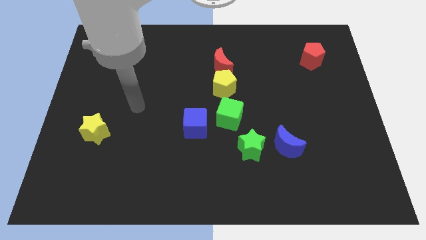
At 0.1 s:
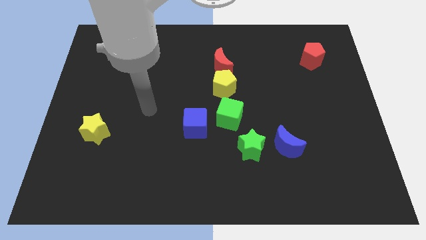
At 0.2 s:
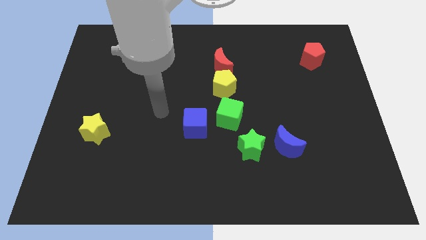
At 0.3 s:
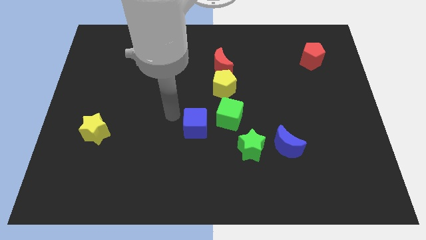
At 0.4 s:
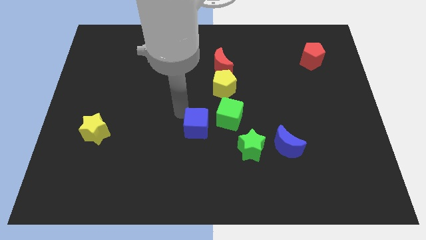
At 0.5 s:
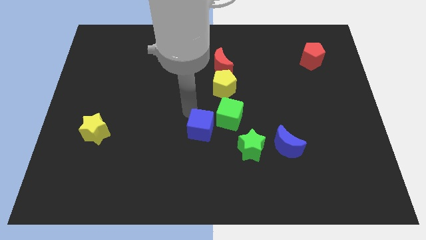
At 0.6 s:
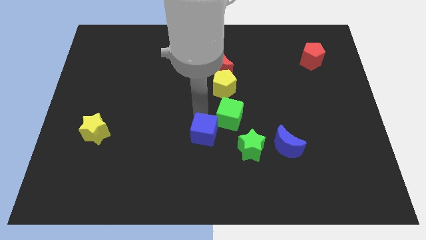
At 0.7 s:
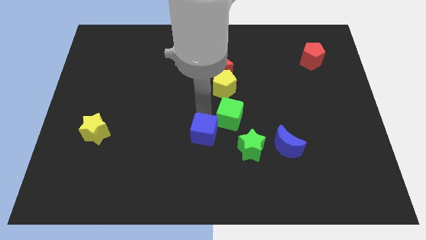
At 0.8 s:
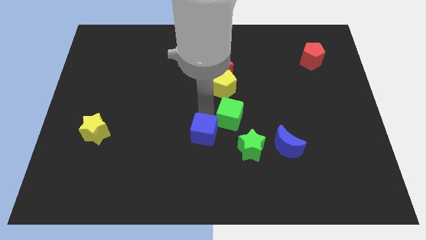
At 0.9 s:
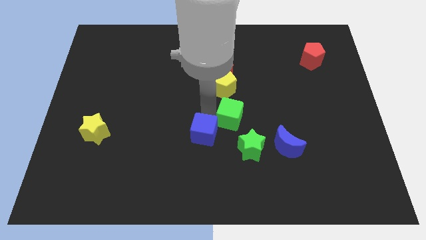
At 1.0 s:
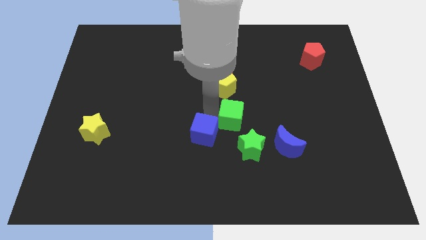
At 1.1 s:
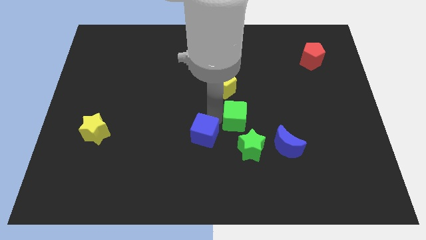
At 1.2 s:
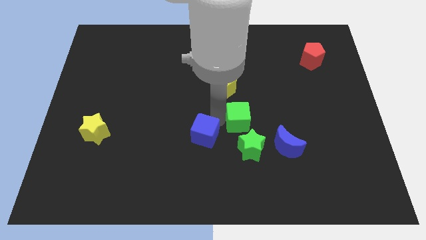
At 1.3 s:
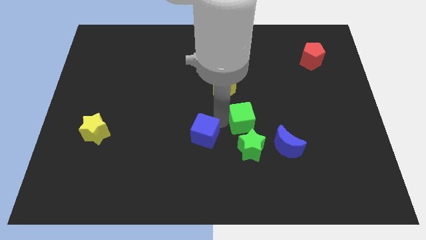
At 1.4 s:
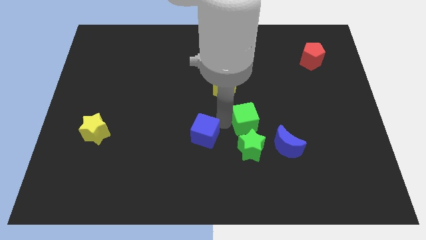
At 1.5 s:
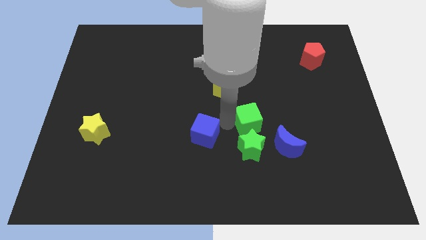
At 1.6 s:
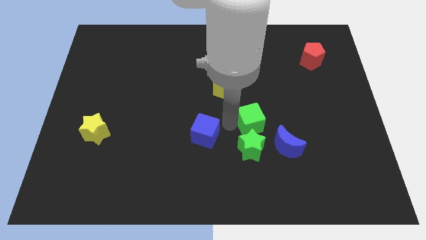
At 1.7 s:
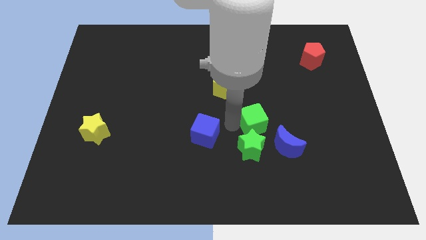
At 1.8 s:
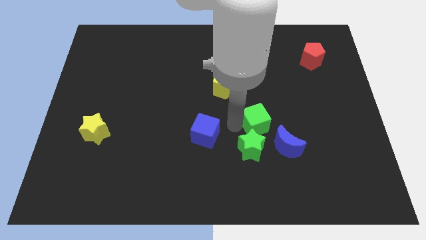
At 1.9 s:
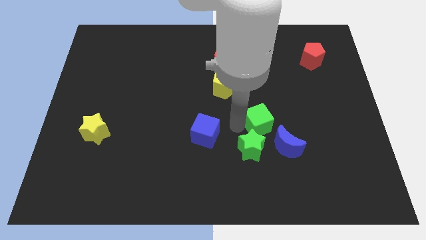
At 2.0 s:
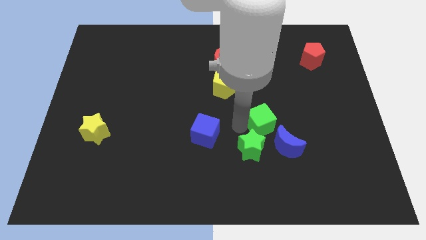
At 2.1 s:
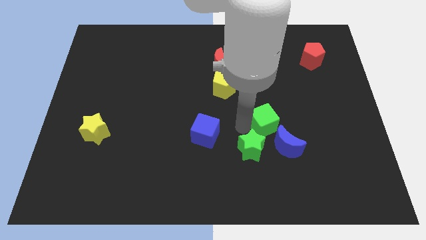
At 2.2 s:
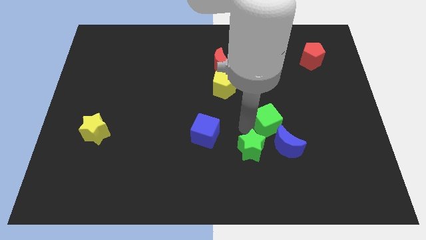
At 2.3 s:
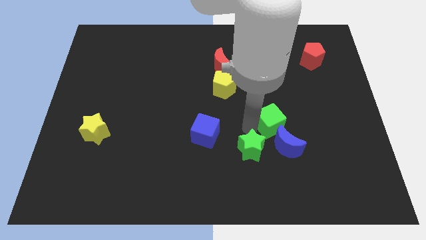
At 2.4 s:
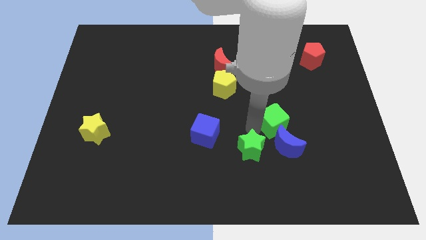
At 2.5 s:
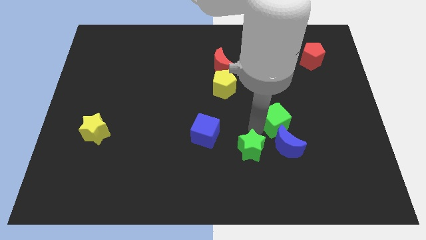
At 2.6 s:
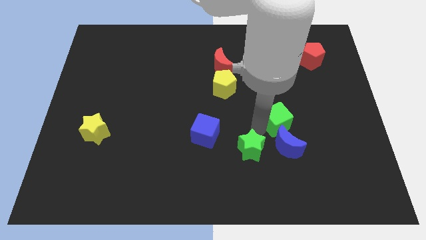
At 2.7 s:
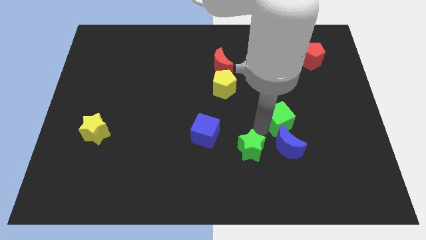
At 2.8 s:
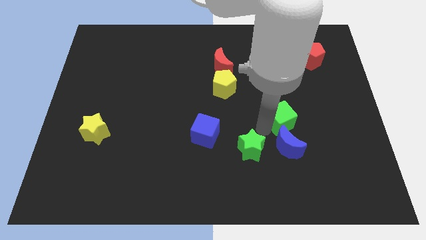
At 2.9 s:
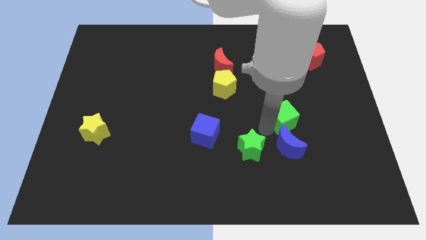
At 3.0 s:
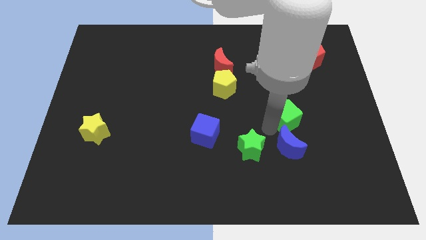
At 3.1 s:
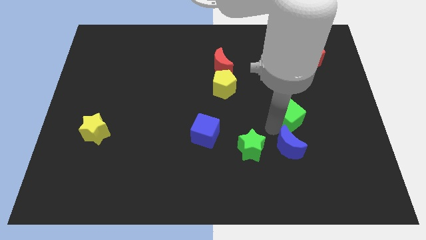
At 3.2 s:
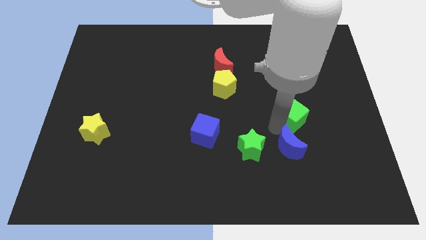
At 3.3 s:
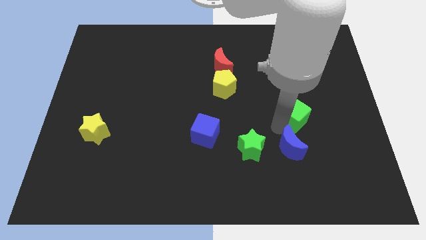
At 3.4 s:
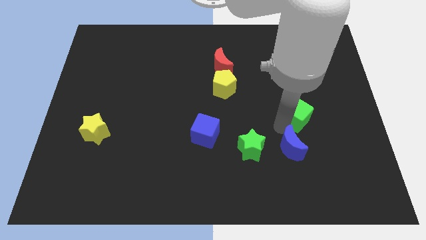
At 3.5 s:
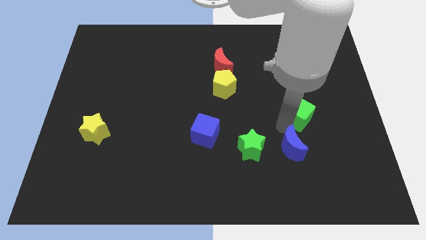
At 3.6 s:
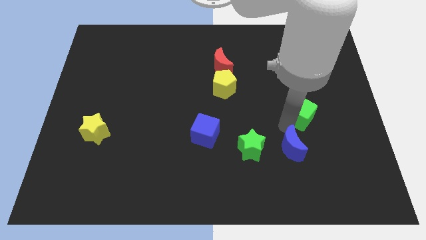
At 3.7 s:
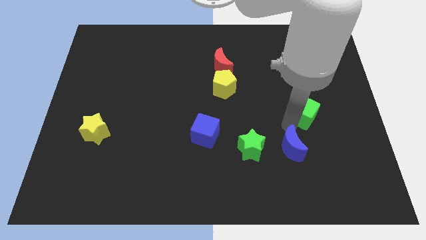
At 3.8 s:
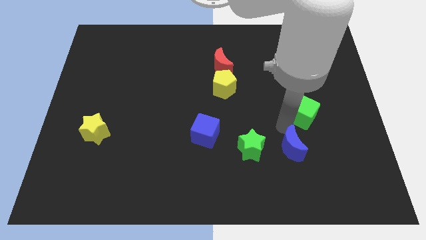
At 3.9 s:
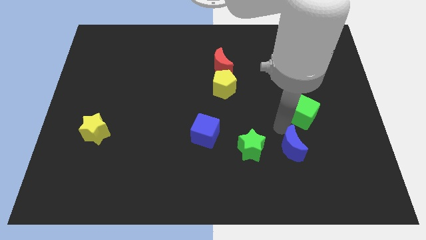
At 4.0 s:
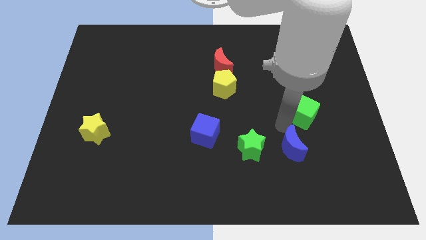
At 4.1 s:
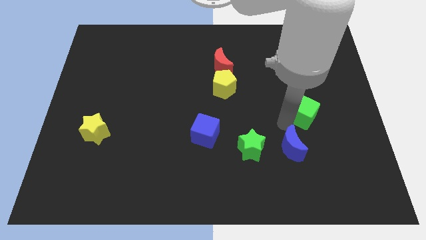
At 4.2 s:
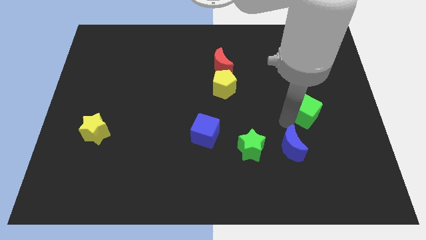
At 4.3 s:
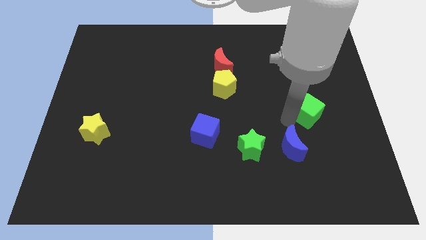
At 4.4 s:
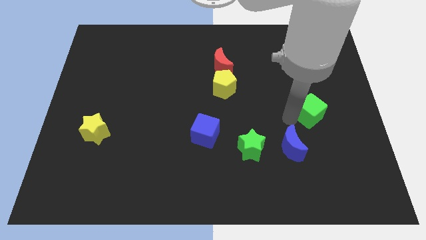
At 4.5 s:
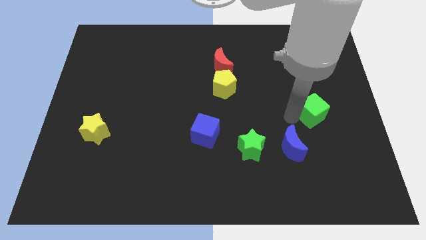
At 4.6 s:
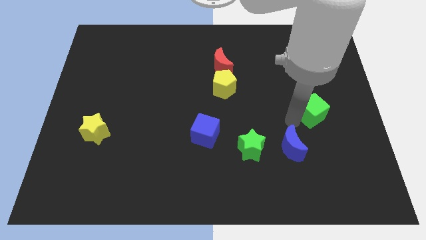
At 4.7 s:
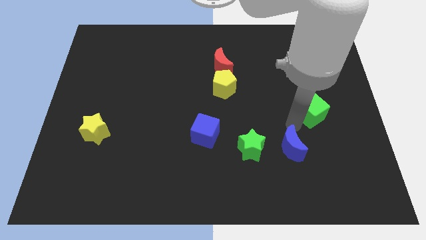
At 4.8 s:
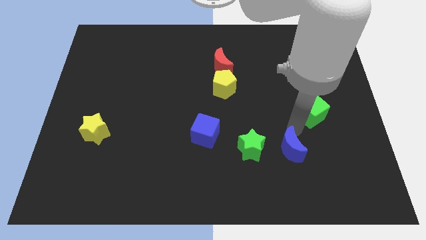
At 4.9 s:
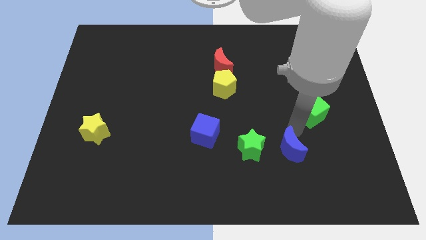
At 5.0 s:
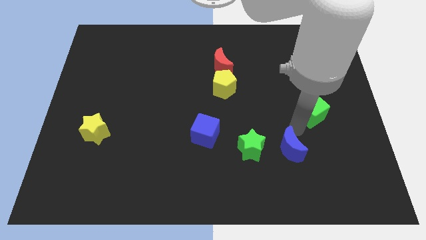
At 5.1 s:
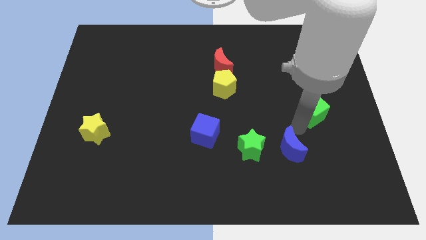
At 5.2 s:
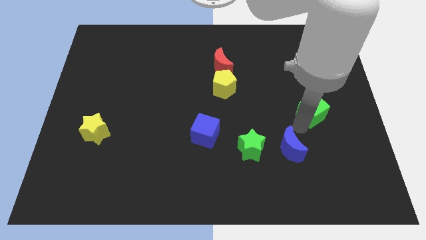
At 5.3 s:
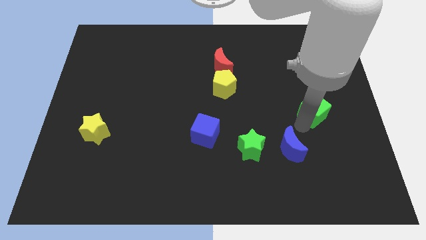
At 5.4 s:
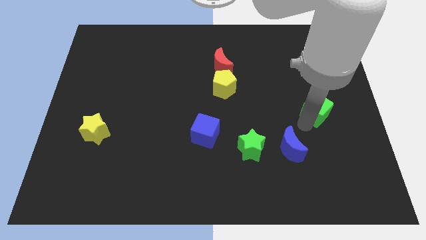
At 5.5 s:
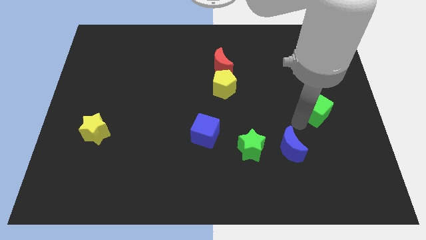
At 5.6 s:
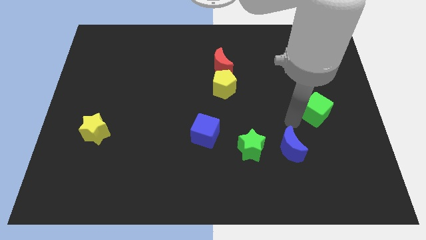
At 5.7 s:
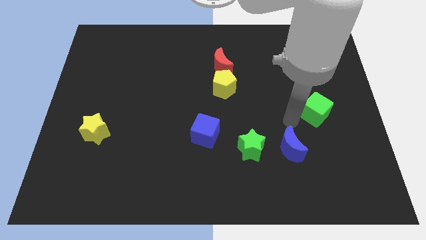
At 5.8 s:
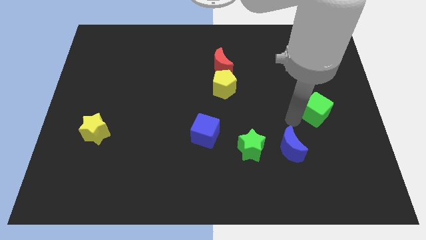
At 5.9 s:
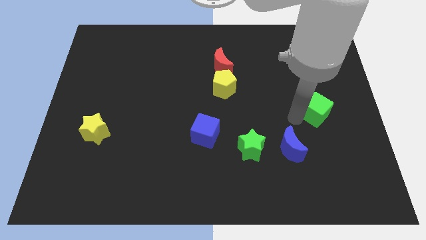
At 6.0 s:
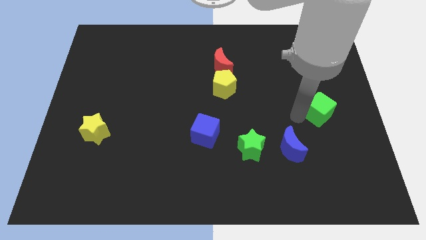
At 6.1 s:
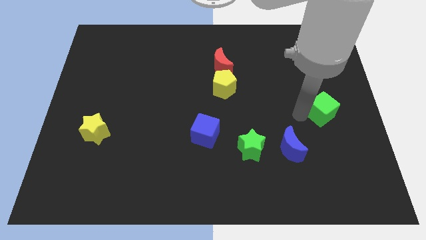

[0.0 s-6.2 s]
slide the green cube to the center right
